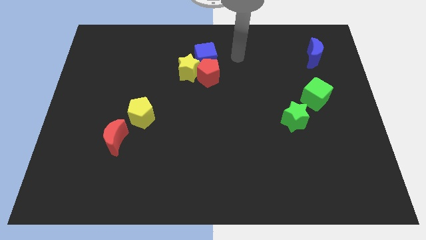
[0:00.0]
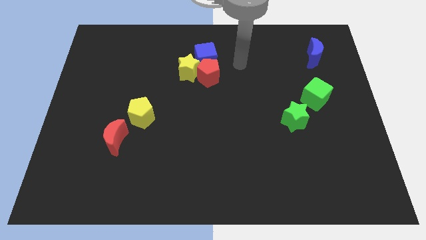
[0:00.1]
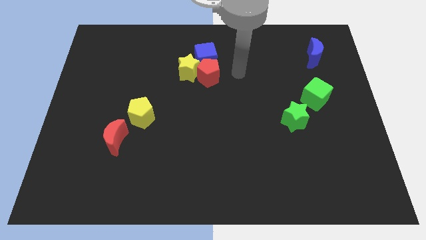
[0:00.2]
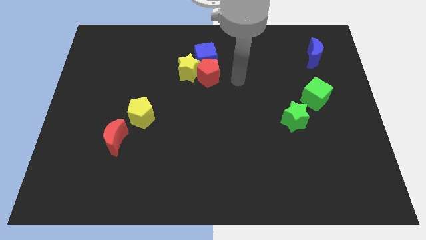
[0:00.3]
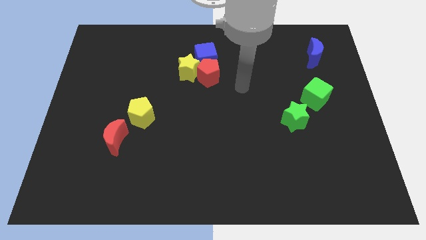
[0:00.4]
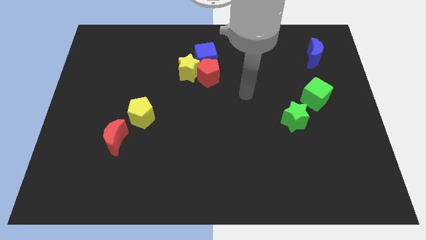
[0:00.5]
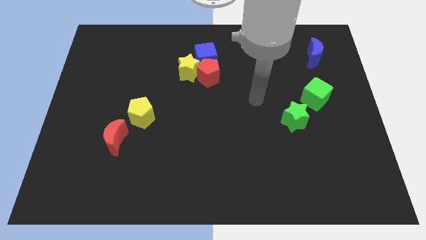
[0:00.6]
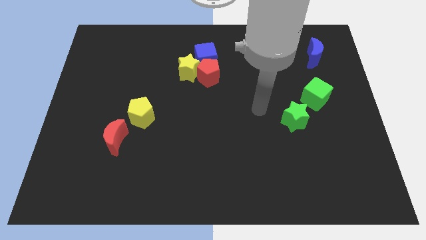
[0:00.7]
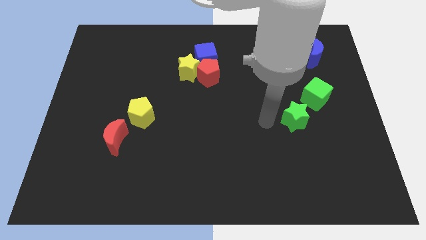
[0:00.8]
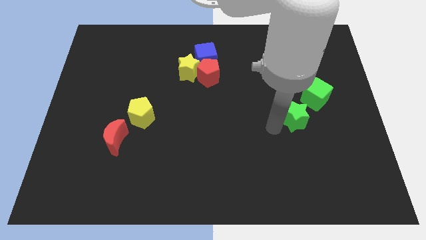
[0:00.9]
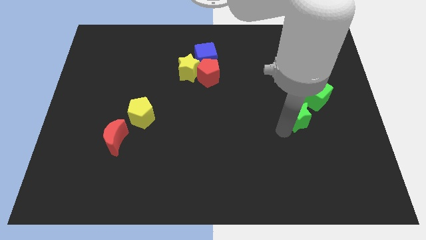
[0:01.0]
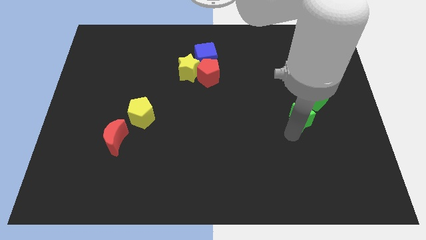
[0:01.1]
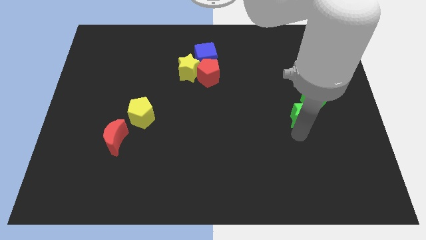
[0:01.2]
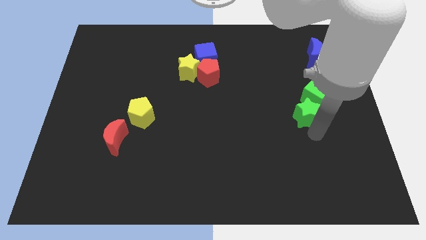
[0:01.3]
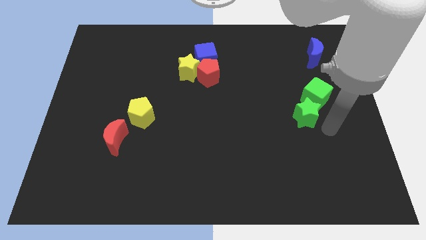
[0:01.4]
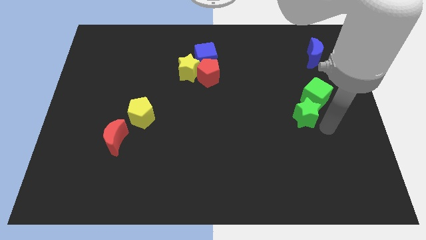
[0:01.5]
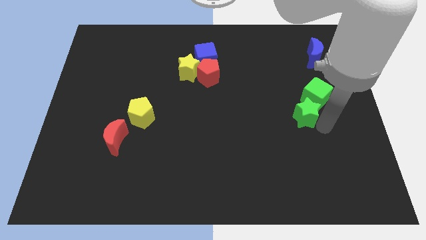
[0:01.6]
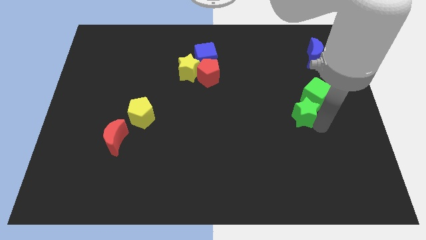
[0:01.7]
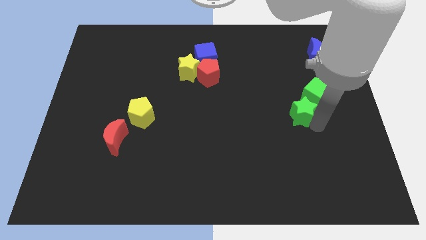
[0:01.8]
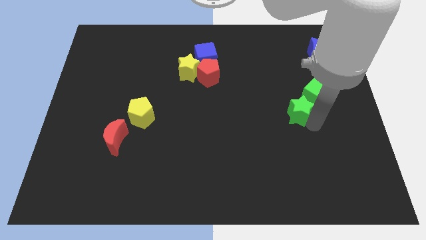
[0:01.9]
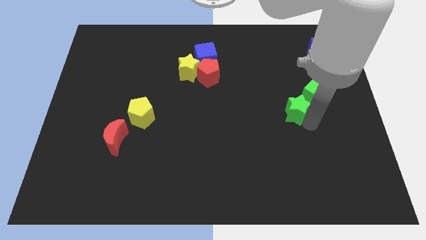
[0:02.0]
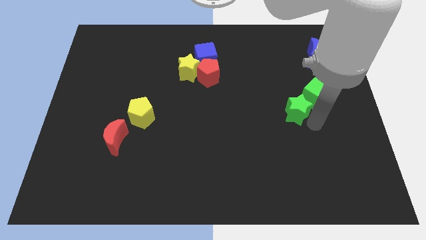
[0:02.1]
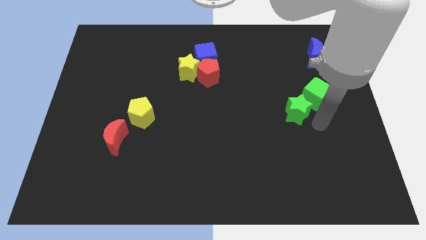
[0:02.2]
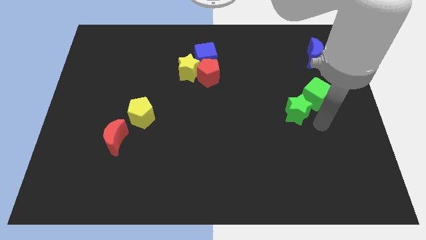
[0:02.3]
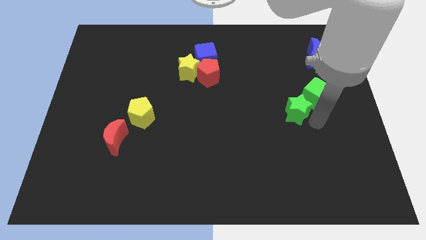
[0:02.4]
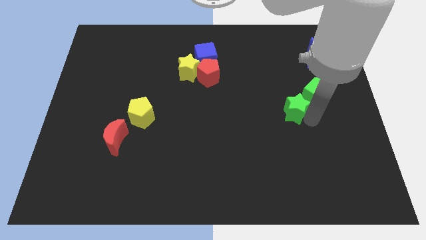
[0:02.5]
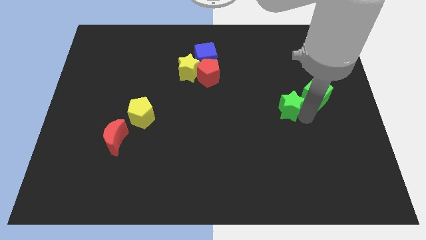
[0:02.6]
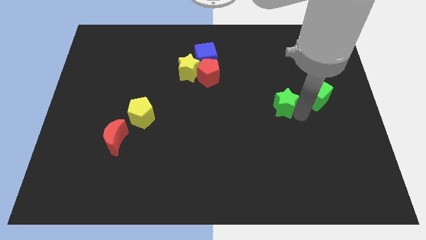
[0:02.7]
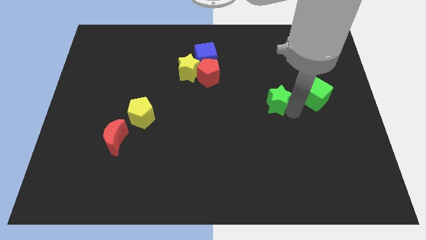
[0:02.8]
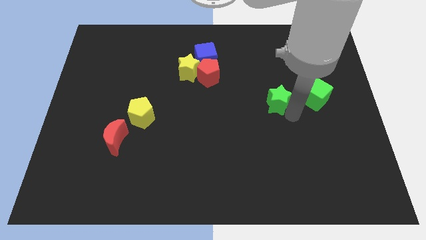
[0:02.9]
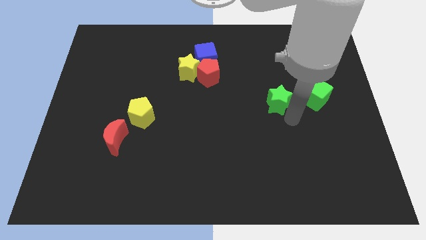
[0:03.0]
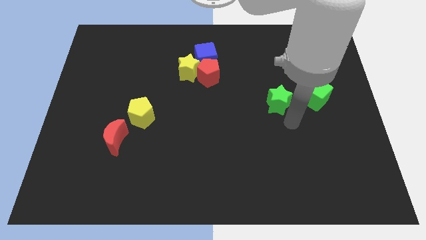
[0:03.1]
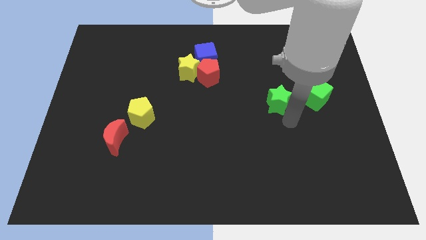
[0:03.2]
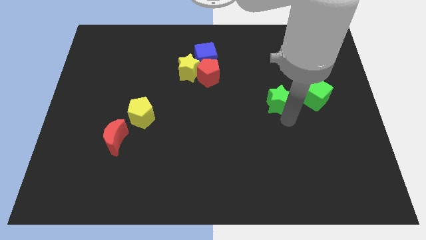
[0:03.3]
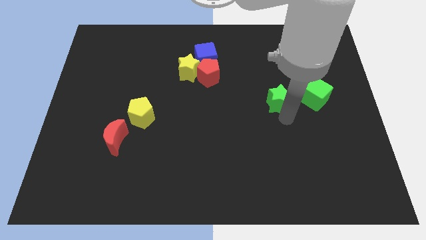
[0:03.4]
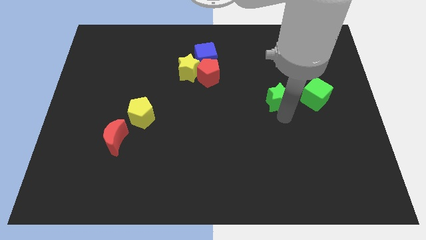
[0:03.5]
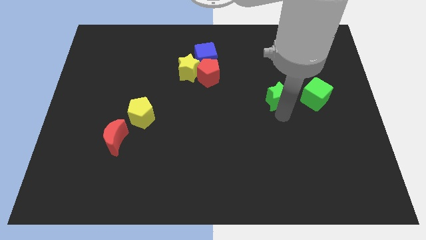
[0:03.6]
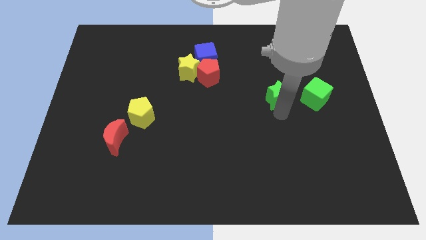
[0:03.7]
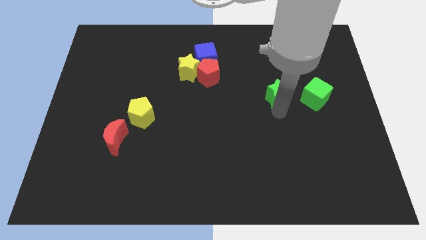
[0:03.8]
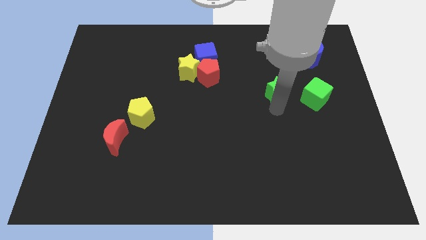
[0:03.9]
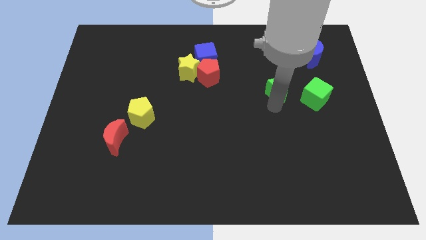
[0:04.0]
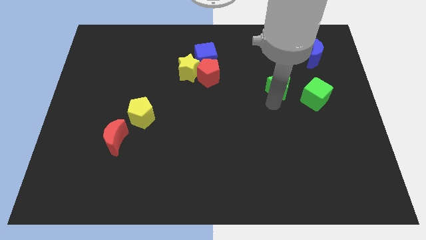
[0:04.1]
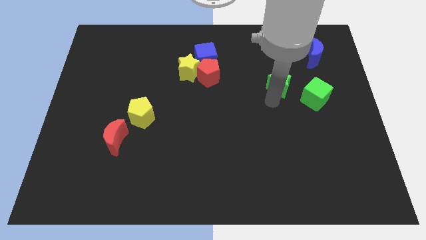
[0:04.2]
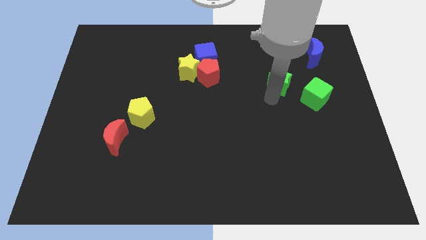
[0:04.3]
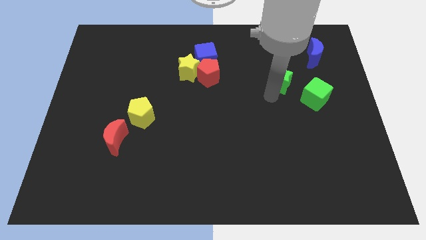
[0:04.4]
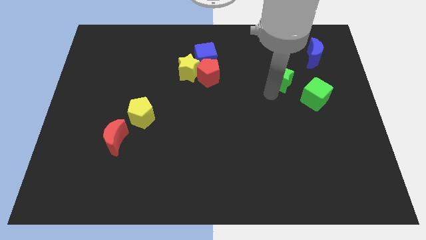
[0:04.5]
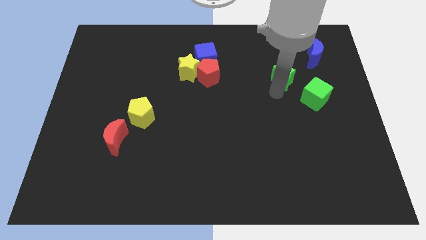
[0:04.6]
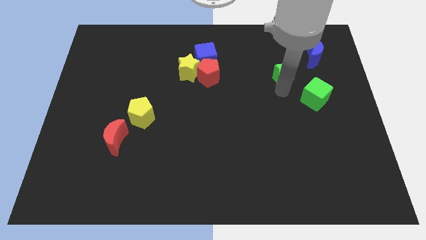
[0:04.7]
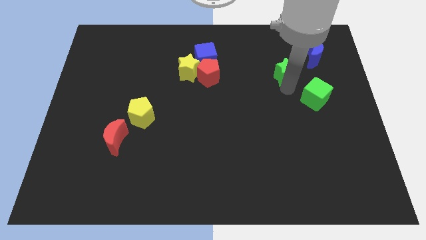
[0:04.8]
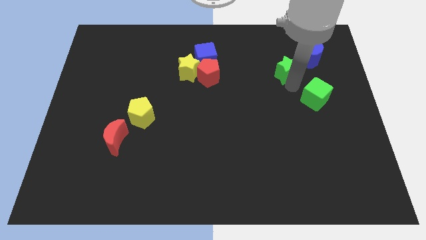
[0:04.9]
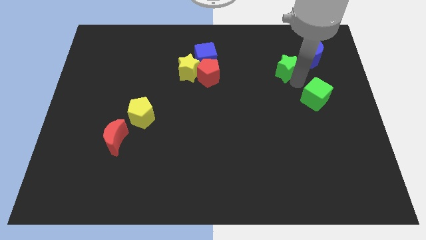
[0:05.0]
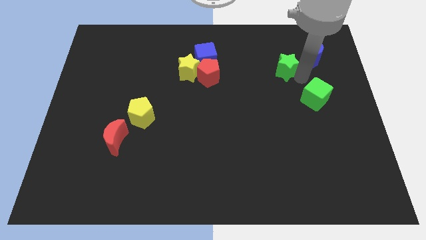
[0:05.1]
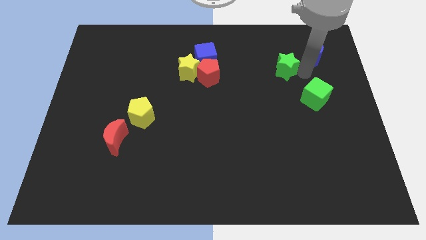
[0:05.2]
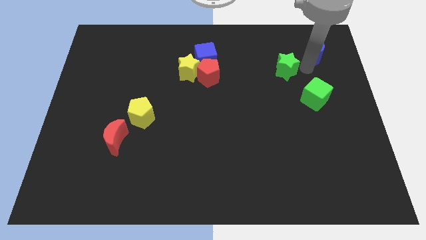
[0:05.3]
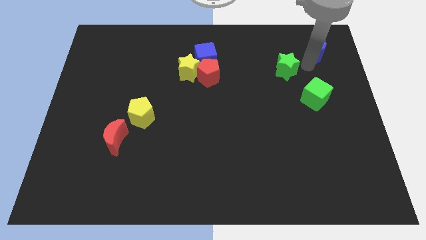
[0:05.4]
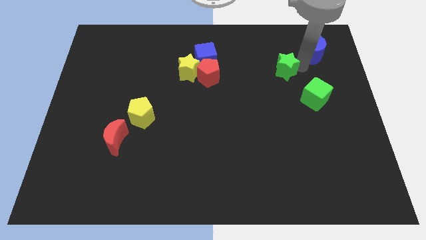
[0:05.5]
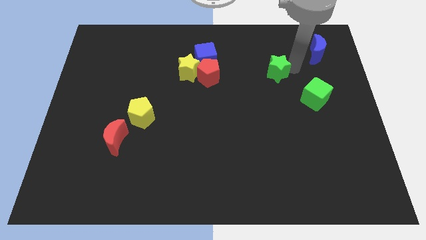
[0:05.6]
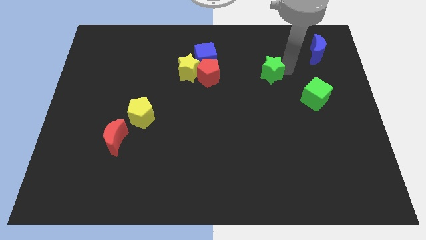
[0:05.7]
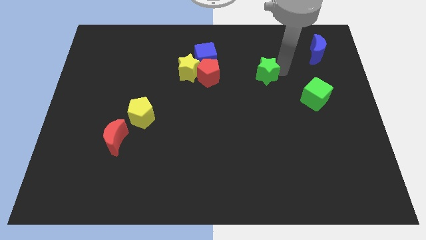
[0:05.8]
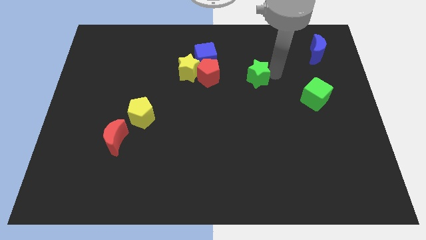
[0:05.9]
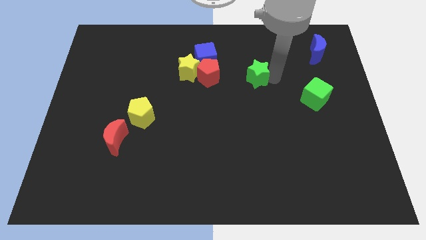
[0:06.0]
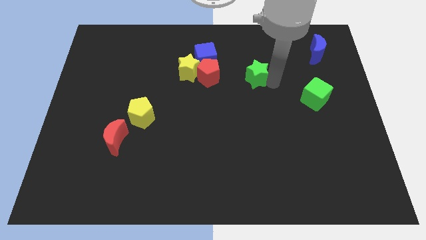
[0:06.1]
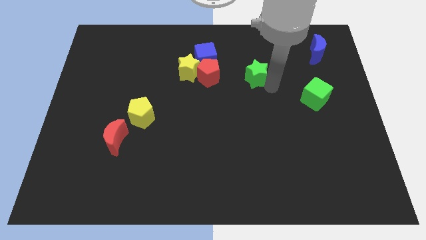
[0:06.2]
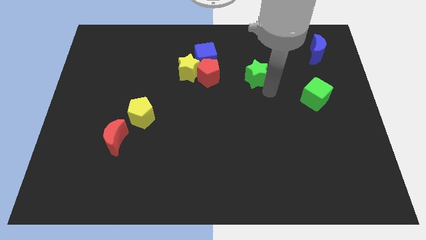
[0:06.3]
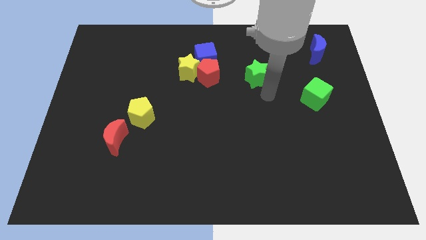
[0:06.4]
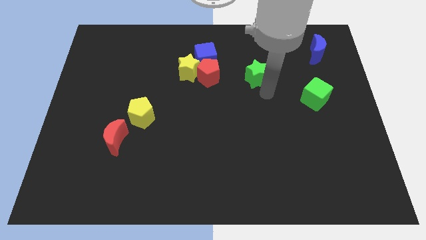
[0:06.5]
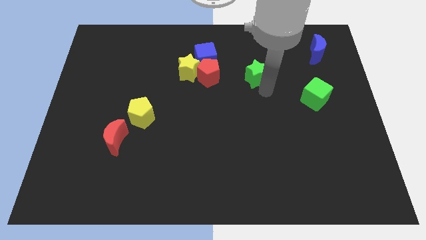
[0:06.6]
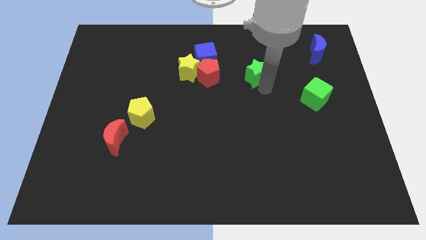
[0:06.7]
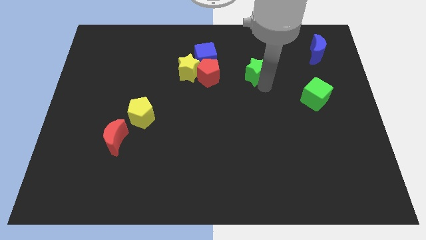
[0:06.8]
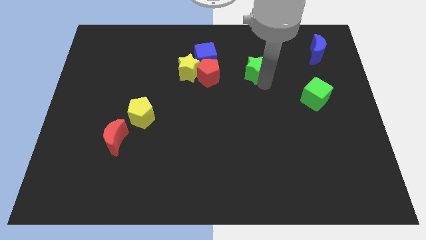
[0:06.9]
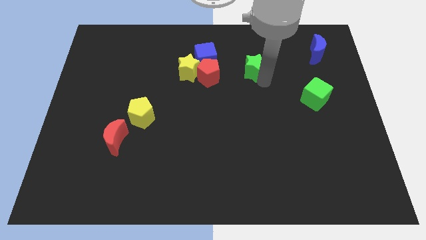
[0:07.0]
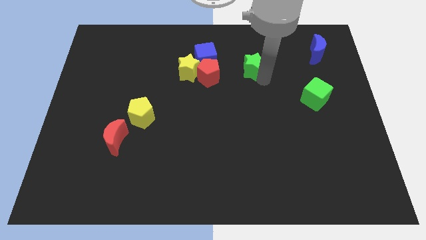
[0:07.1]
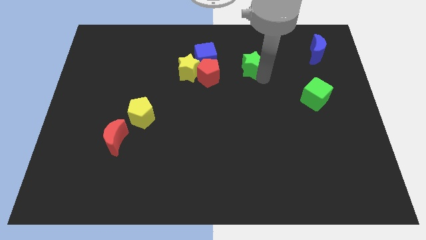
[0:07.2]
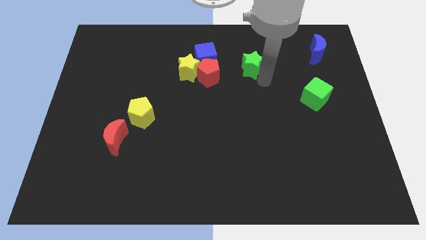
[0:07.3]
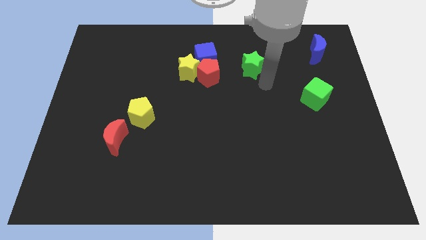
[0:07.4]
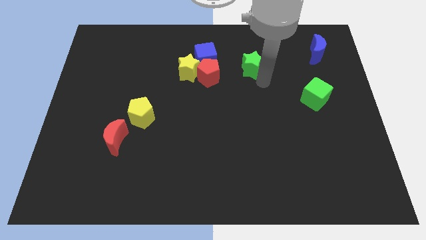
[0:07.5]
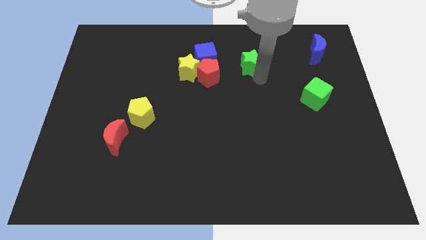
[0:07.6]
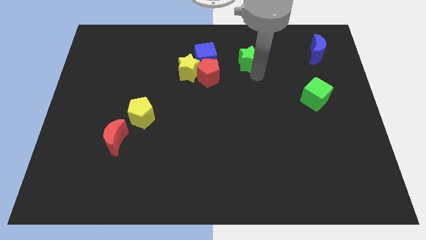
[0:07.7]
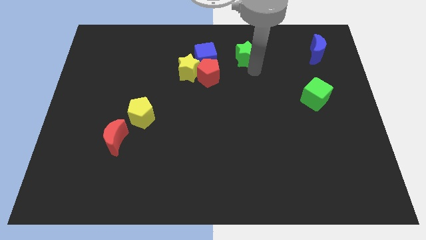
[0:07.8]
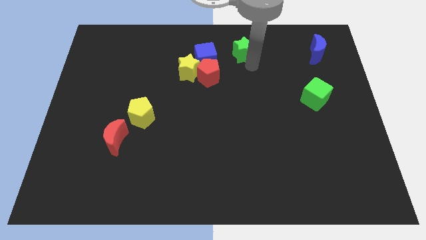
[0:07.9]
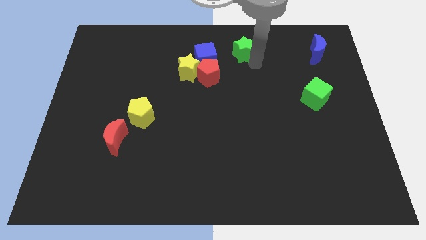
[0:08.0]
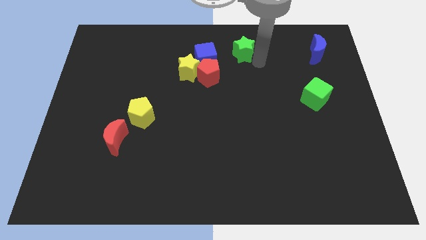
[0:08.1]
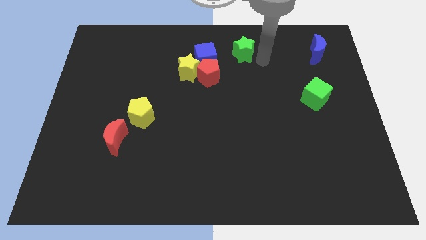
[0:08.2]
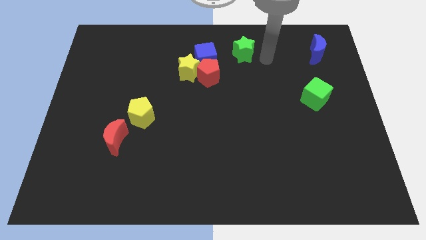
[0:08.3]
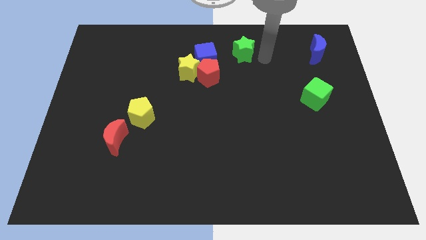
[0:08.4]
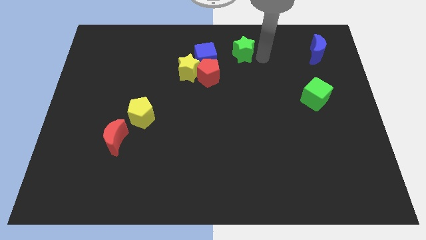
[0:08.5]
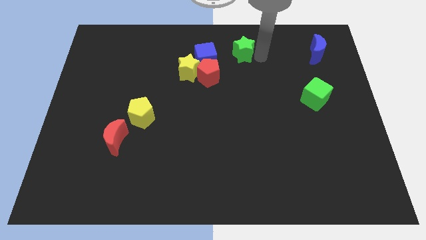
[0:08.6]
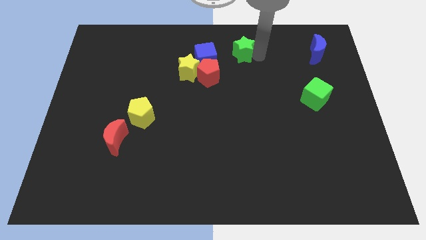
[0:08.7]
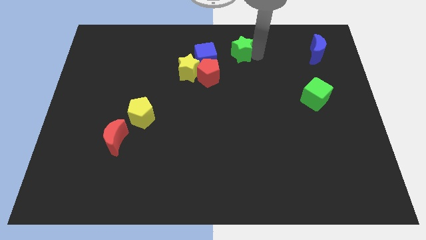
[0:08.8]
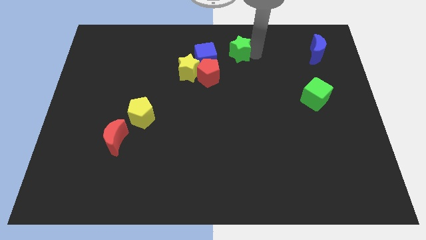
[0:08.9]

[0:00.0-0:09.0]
slide the green star to the top side
